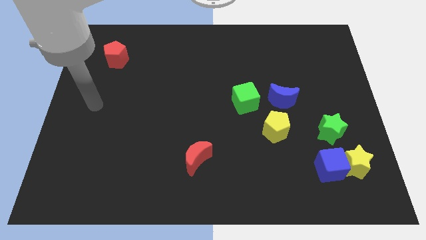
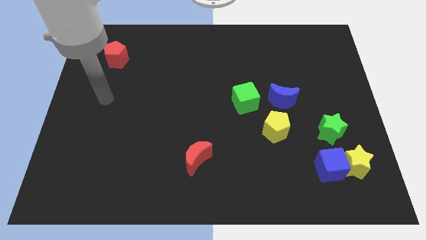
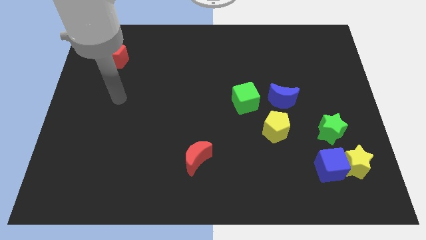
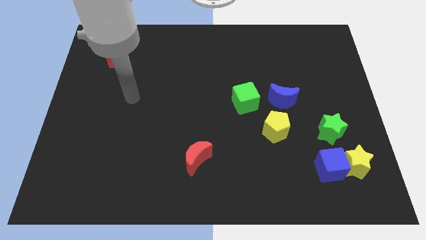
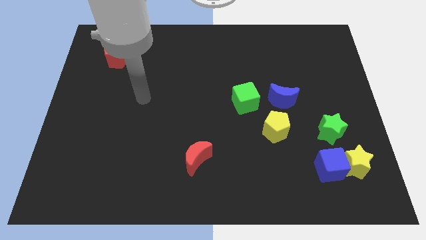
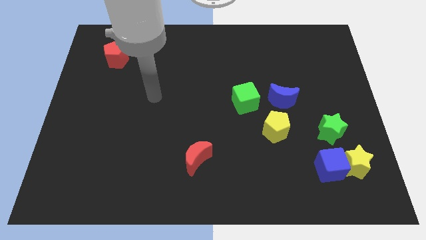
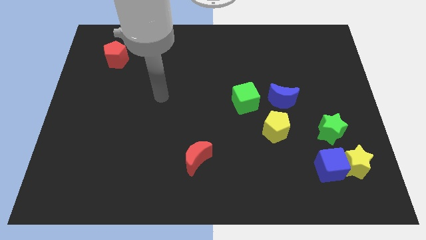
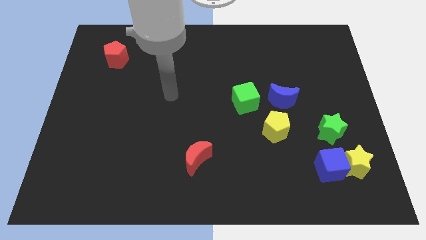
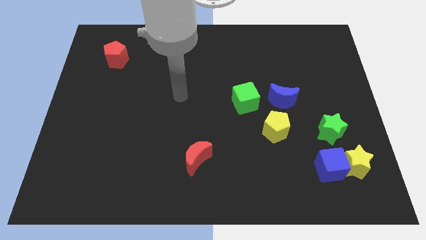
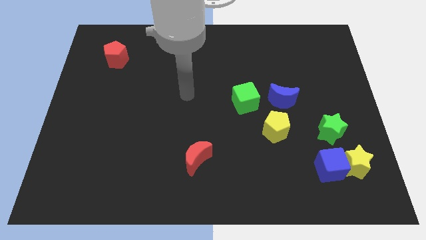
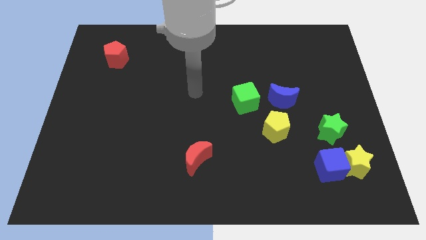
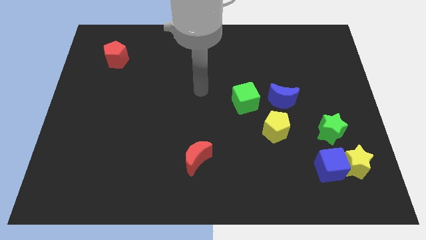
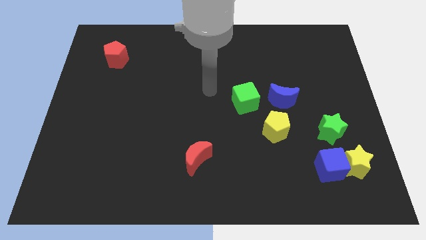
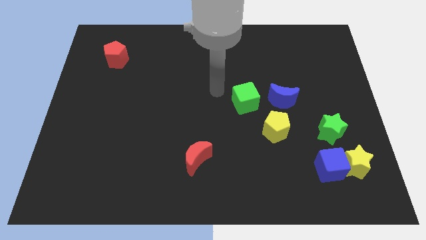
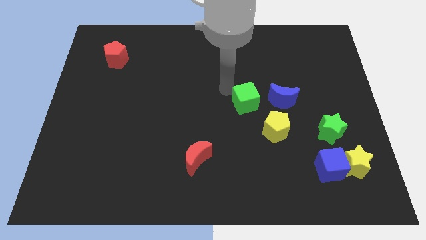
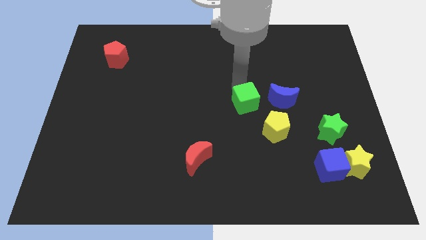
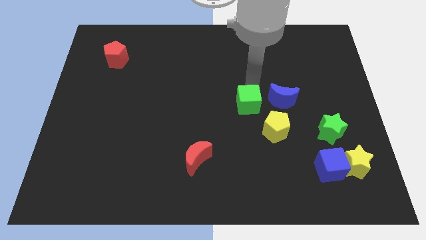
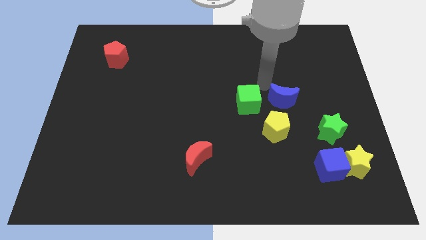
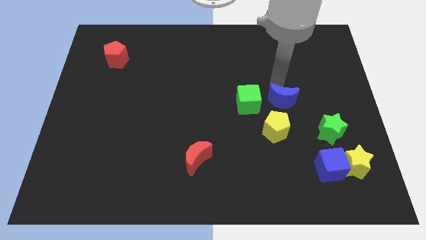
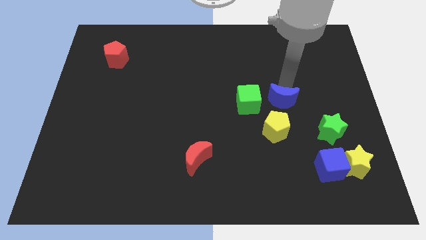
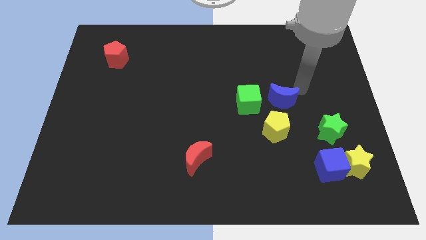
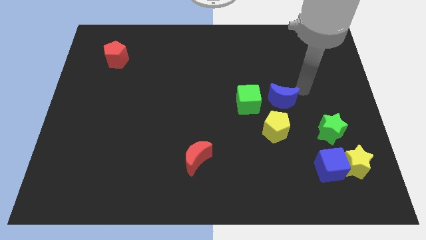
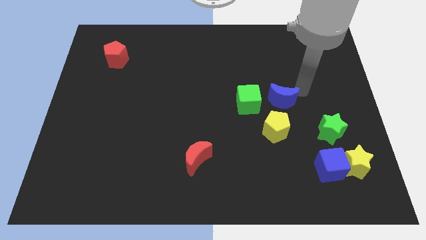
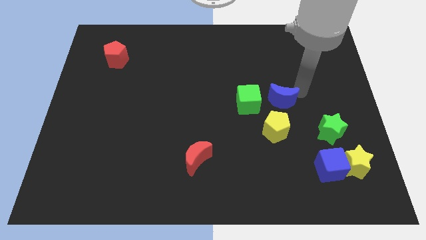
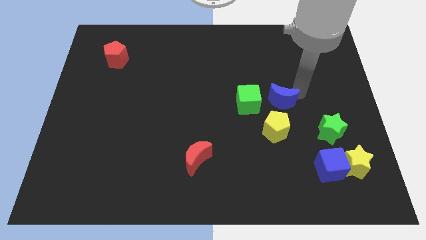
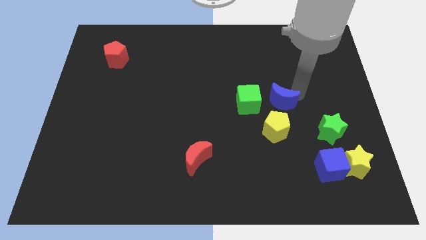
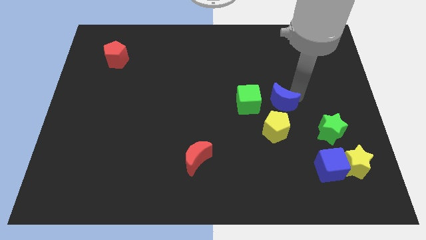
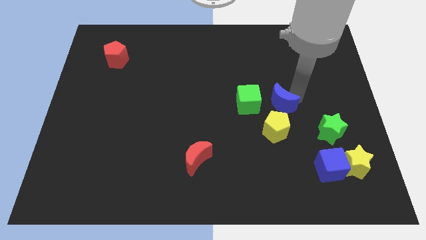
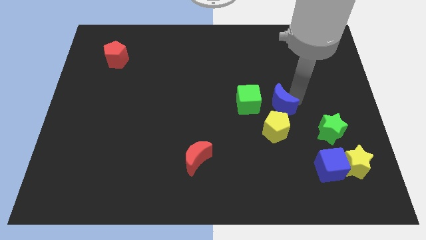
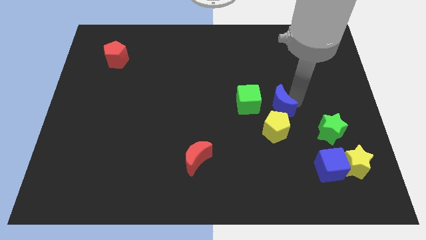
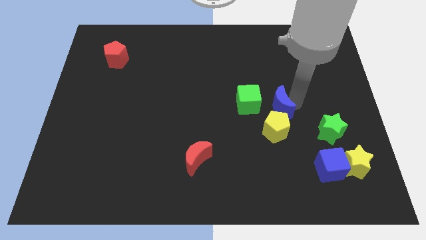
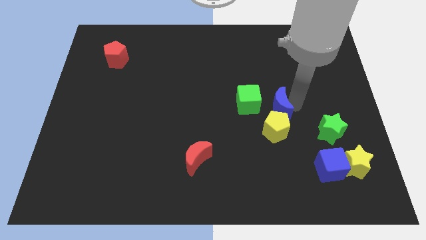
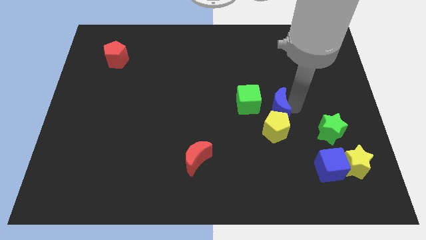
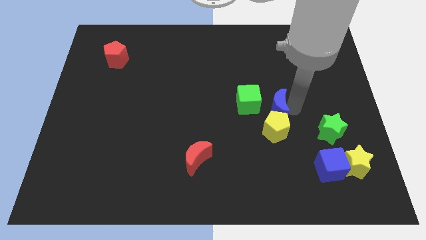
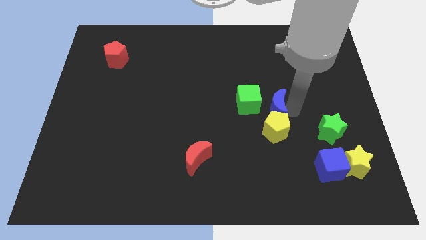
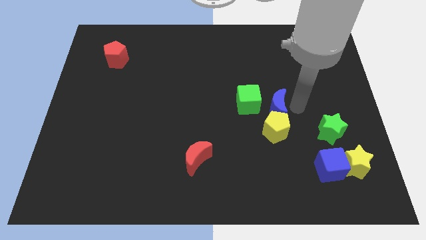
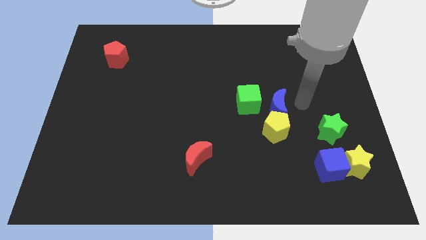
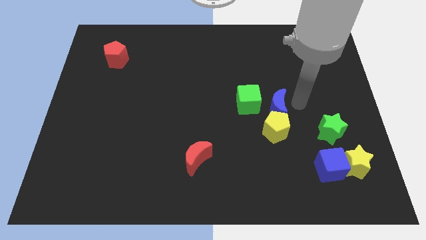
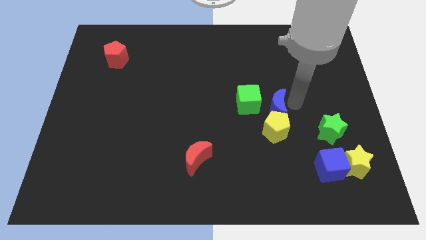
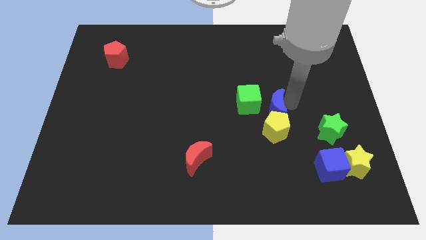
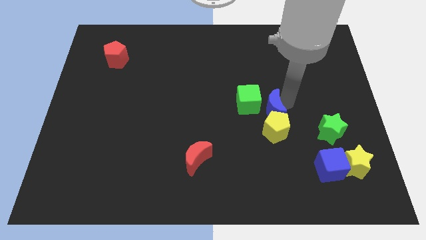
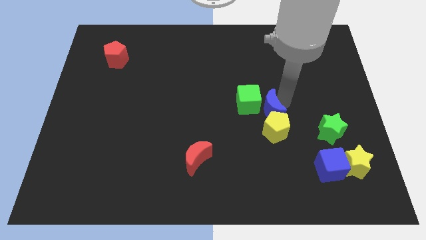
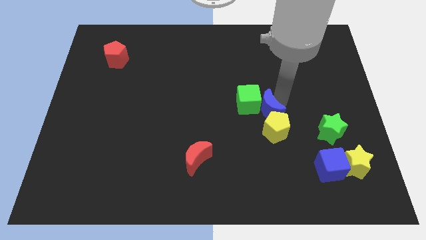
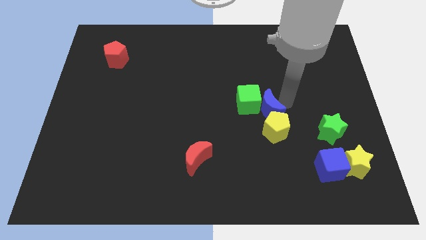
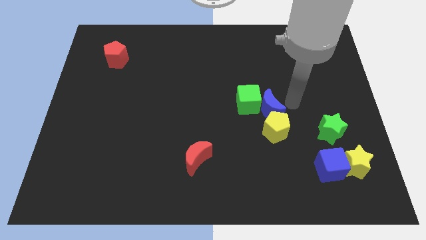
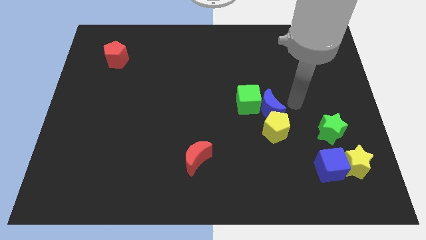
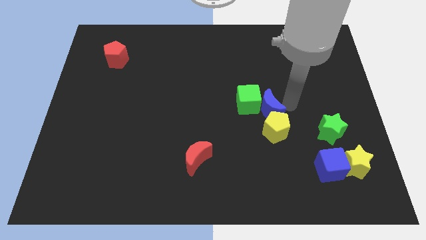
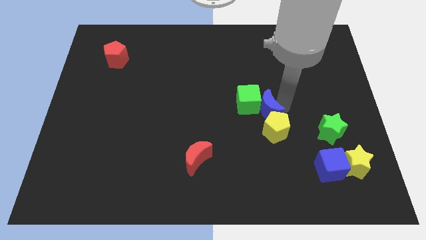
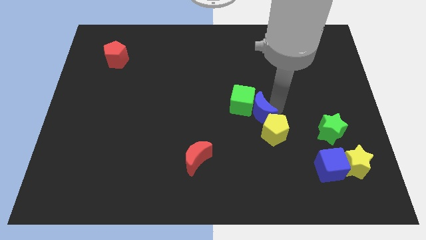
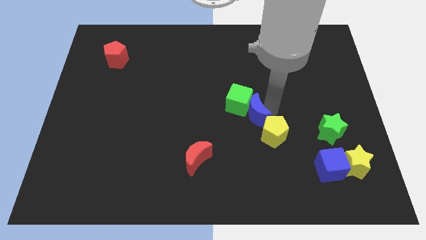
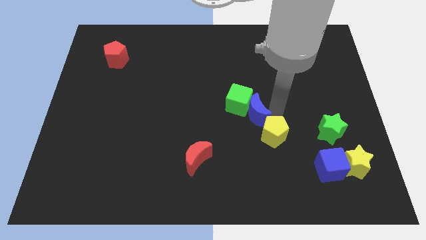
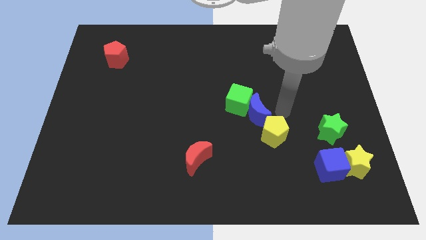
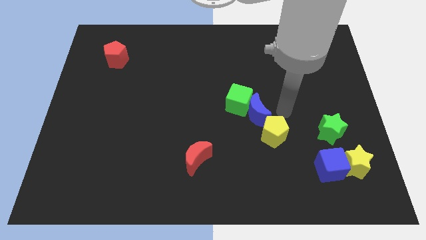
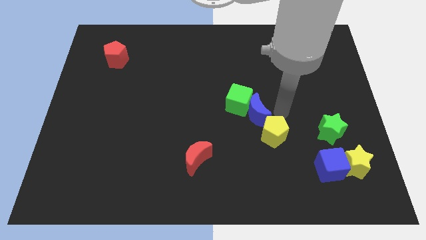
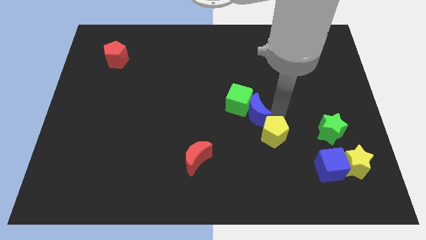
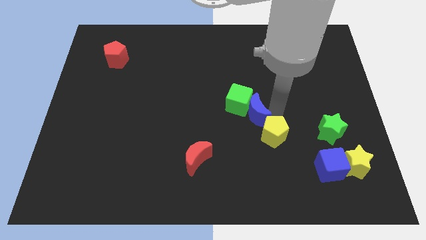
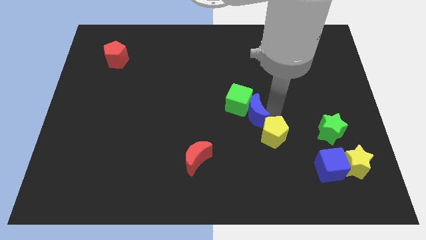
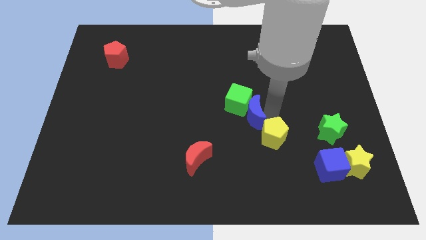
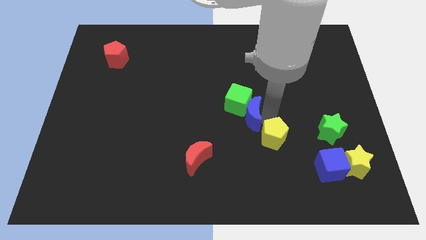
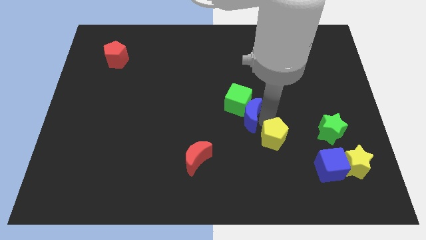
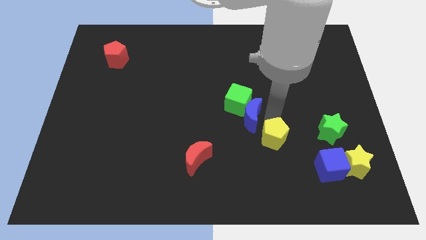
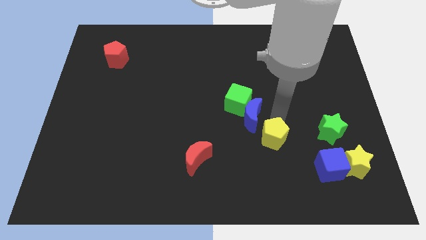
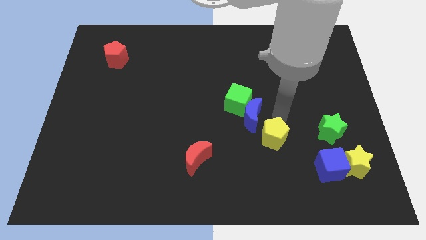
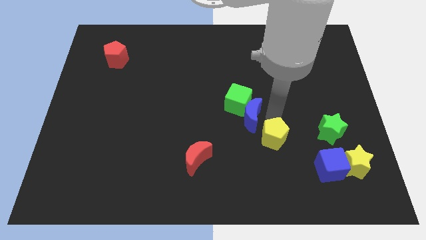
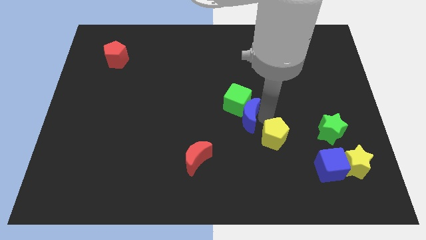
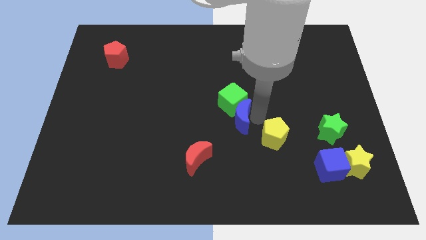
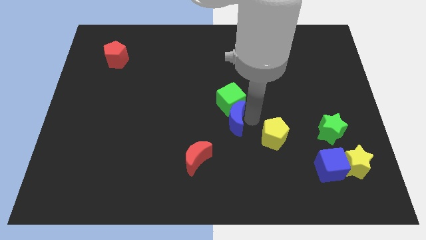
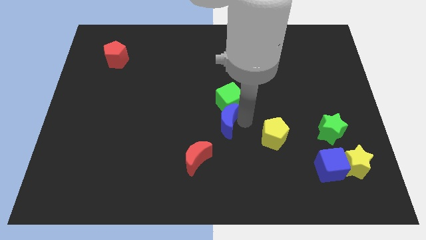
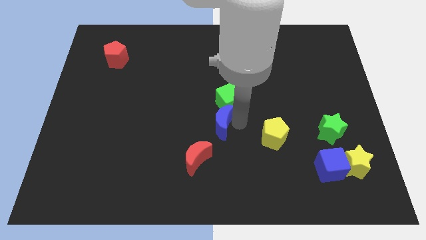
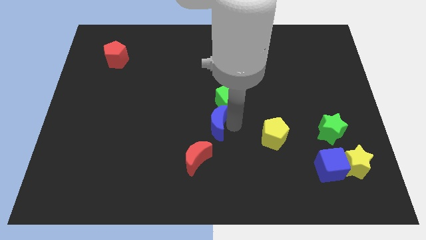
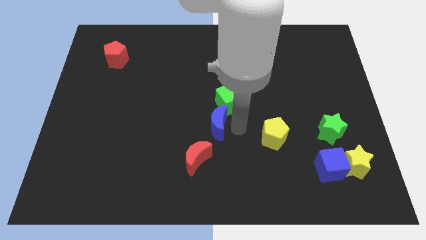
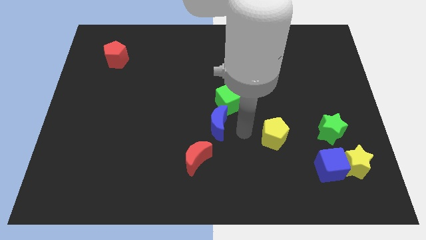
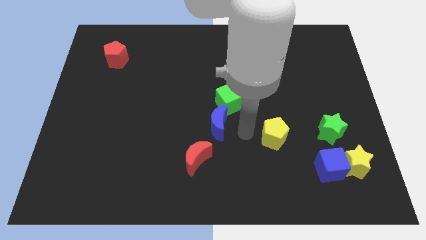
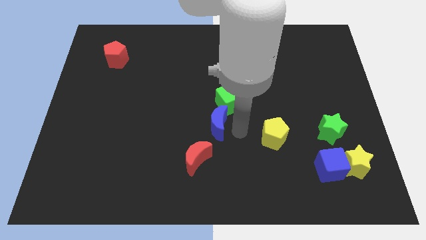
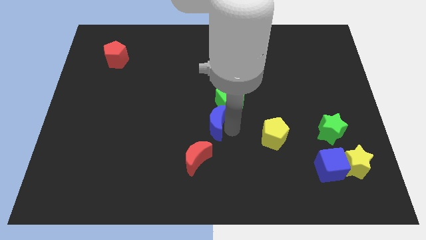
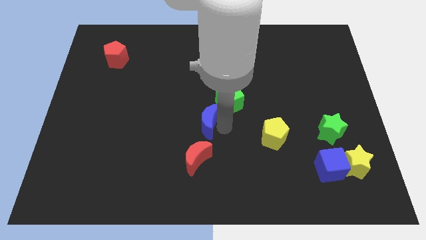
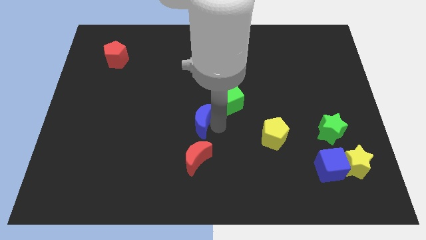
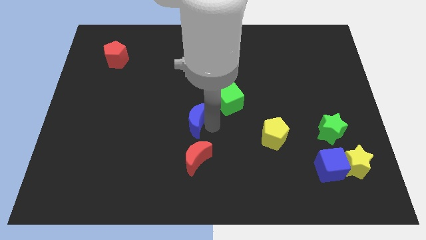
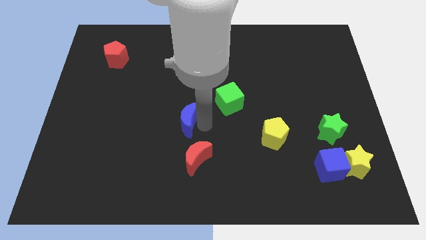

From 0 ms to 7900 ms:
move the blue moon to the left

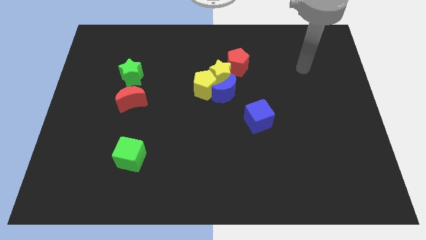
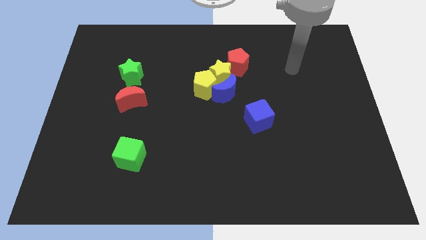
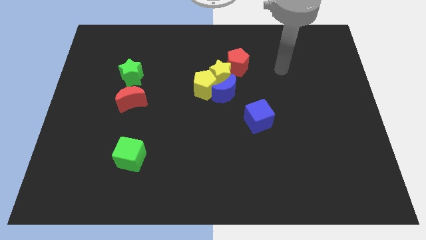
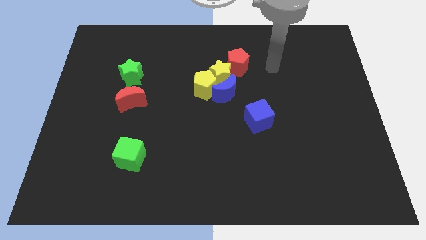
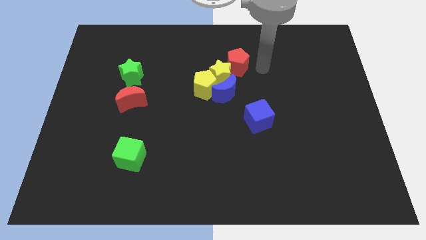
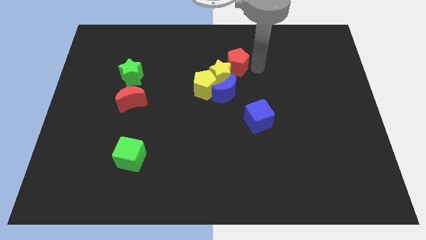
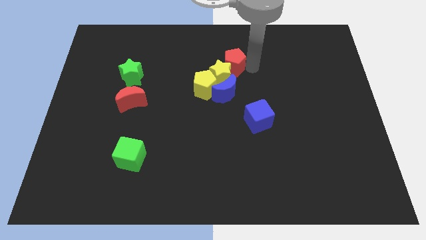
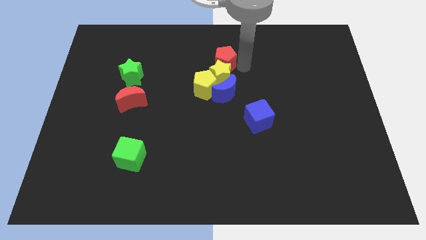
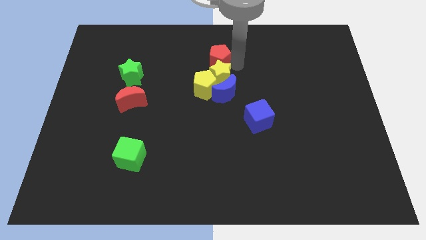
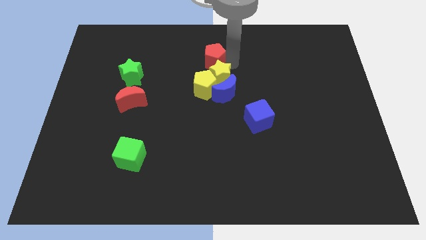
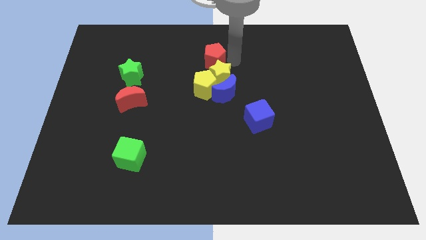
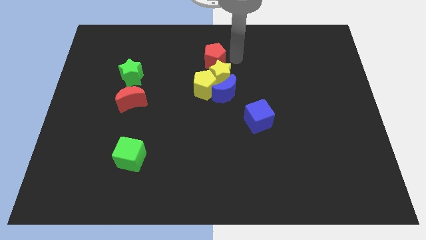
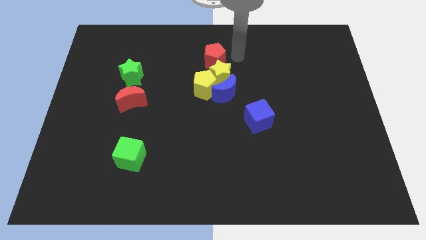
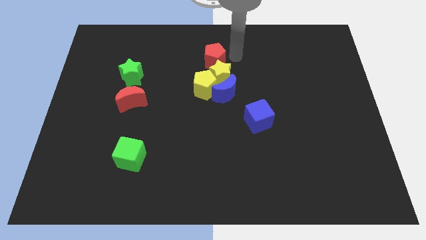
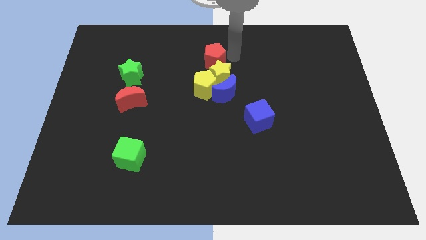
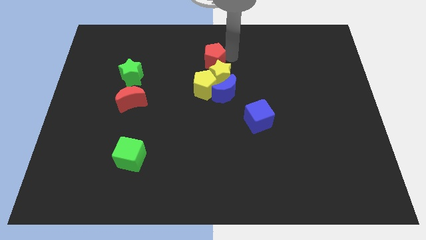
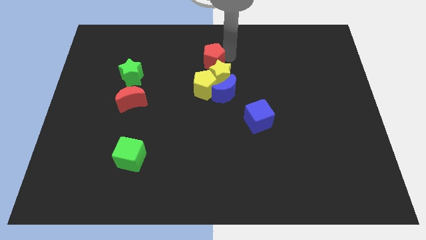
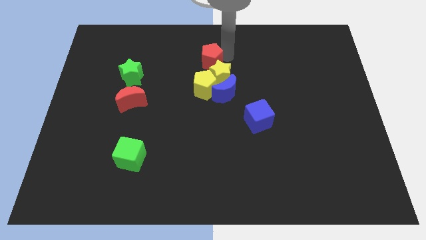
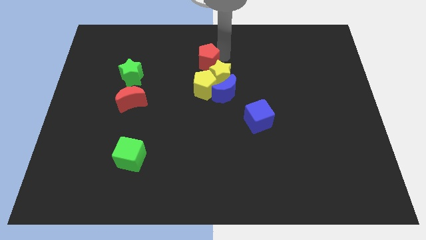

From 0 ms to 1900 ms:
move the red pentagon a little left
